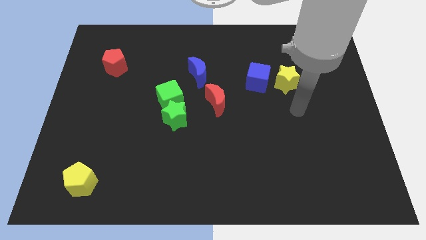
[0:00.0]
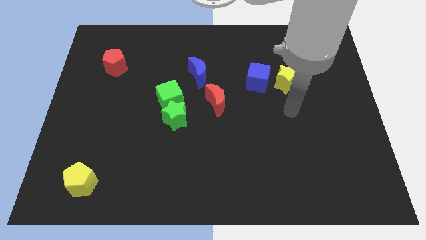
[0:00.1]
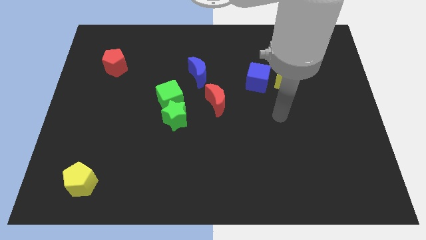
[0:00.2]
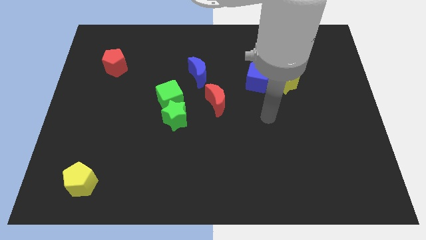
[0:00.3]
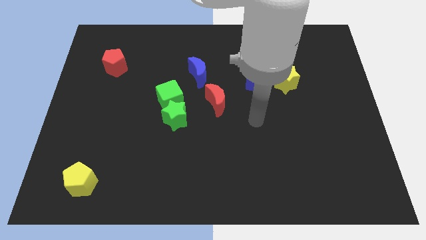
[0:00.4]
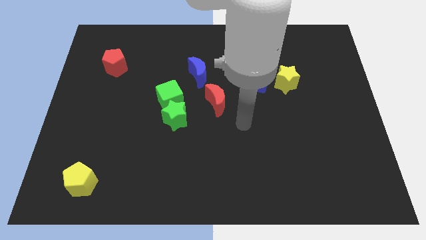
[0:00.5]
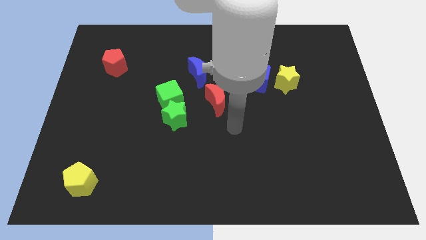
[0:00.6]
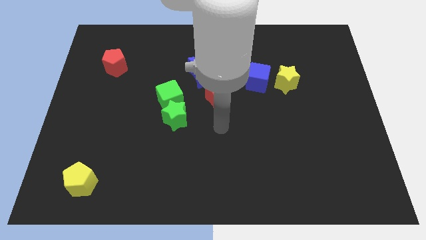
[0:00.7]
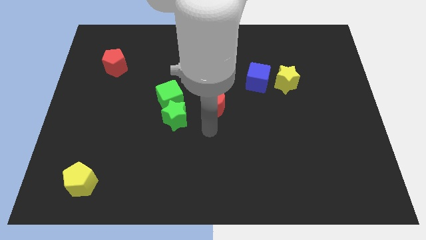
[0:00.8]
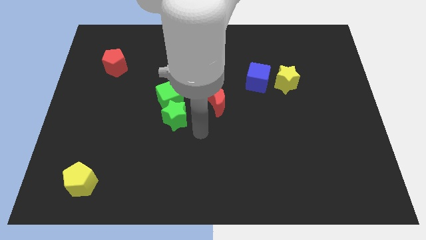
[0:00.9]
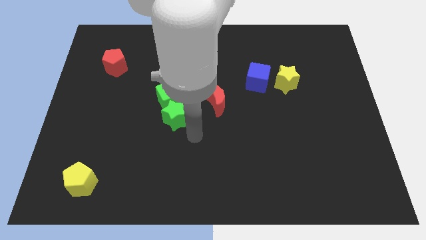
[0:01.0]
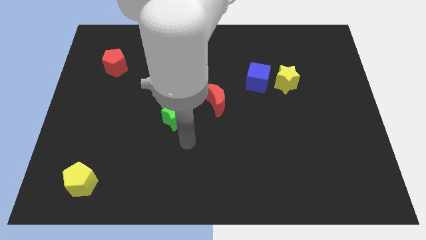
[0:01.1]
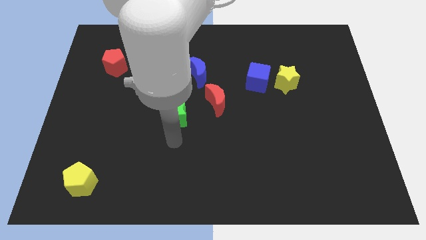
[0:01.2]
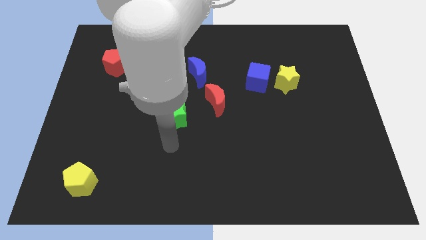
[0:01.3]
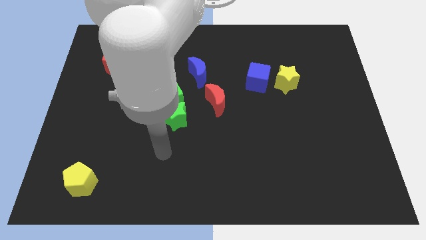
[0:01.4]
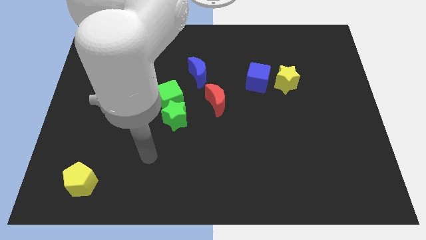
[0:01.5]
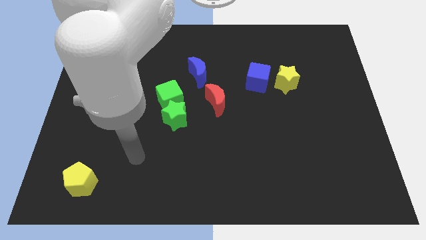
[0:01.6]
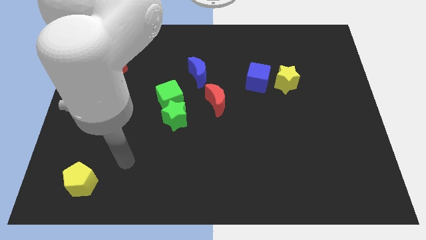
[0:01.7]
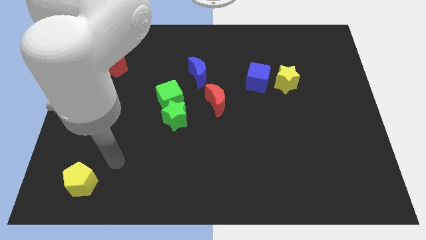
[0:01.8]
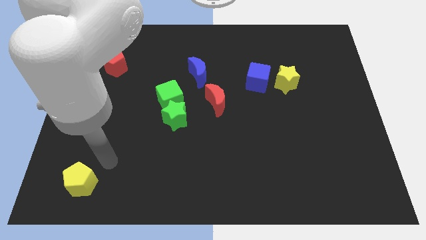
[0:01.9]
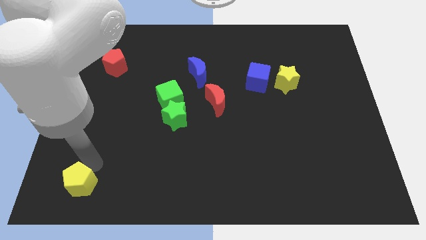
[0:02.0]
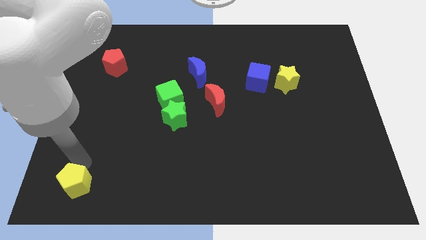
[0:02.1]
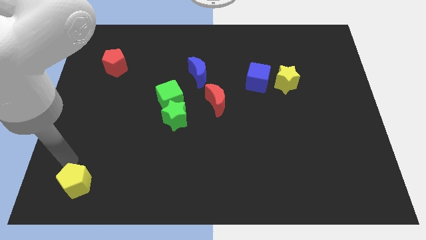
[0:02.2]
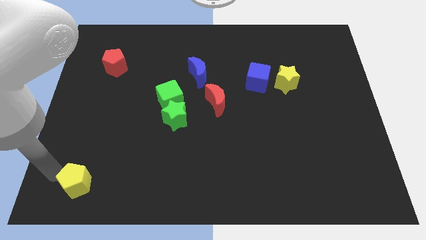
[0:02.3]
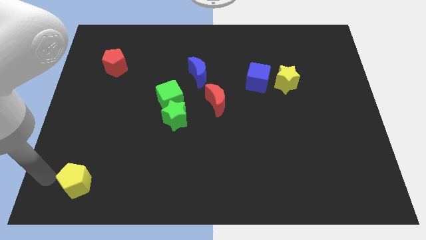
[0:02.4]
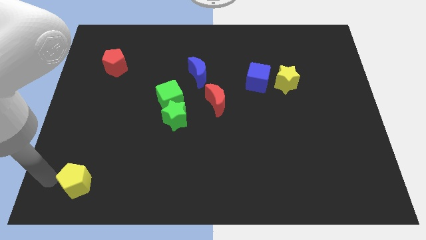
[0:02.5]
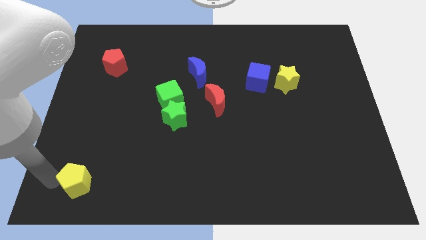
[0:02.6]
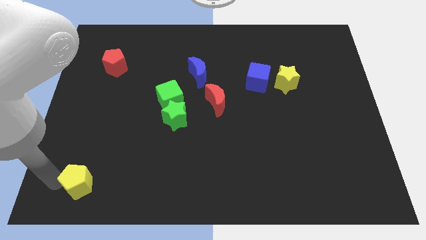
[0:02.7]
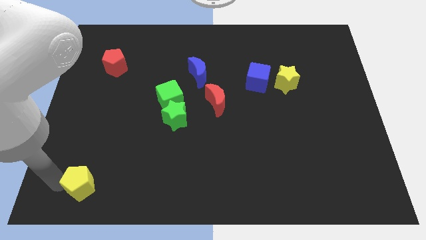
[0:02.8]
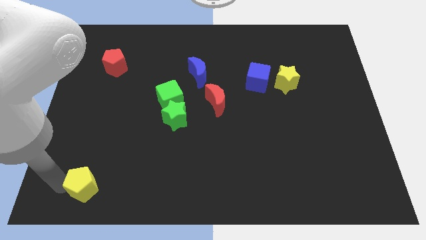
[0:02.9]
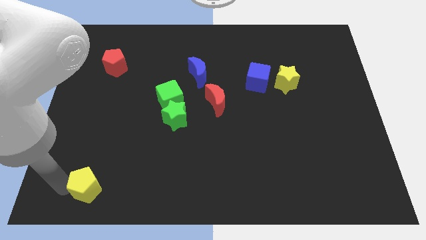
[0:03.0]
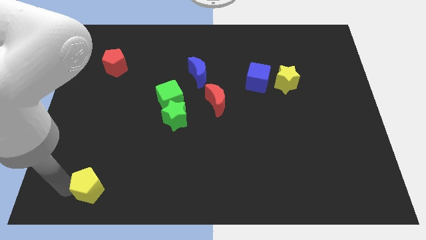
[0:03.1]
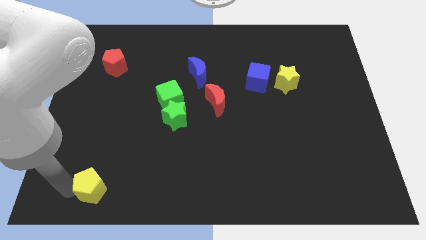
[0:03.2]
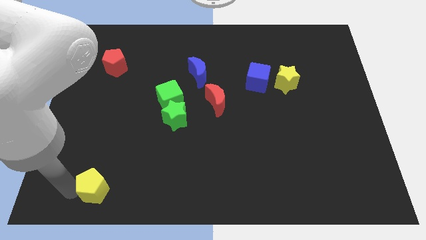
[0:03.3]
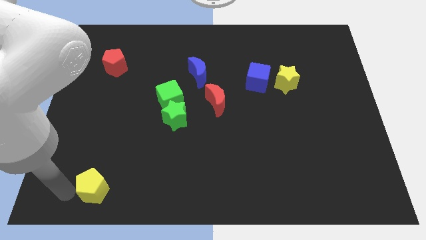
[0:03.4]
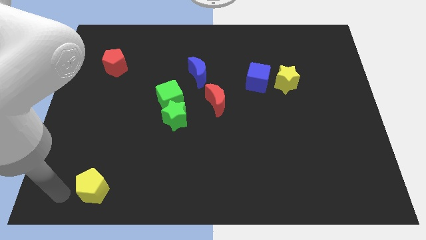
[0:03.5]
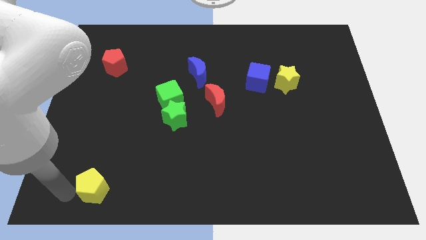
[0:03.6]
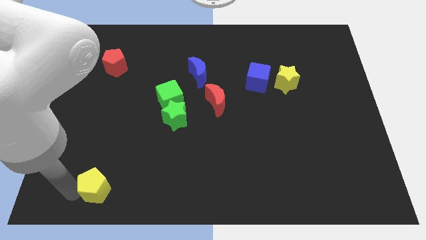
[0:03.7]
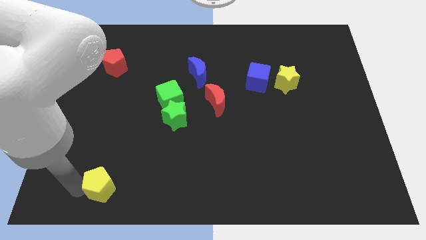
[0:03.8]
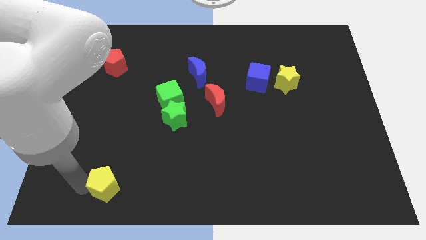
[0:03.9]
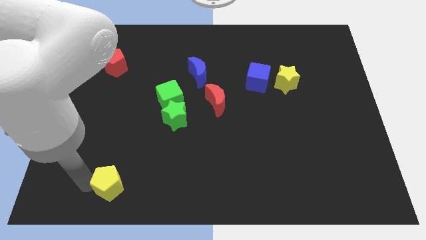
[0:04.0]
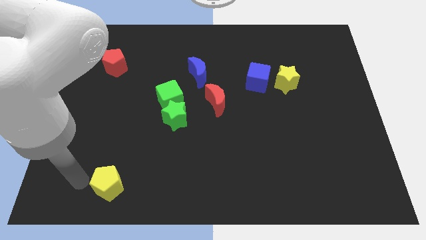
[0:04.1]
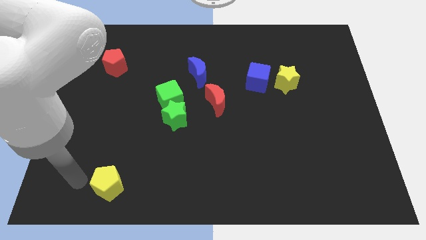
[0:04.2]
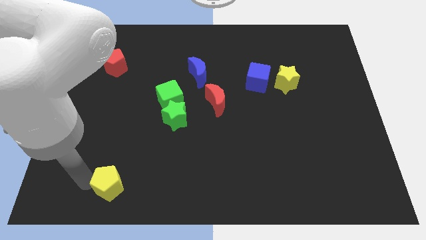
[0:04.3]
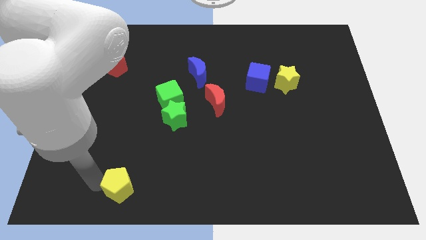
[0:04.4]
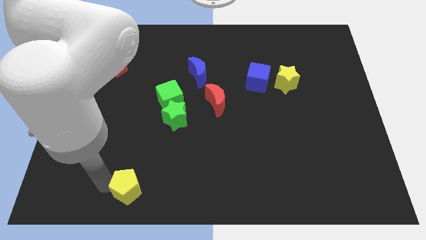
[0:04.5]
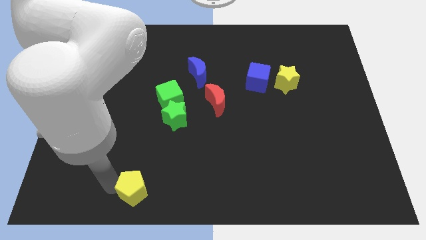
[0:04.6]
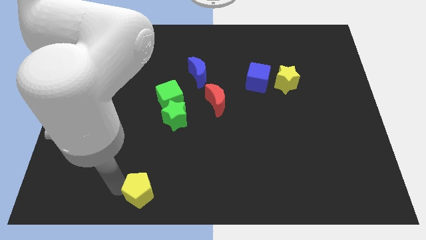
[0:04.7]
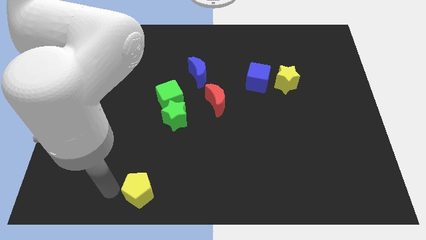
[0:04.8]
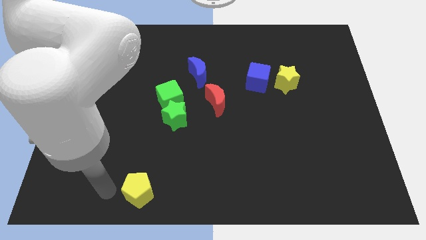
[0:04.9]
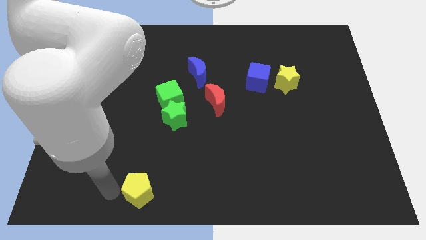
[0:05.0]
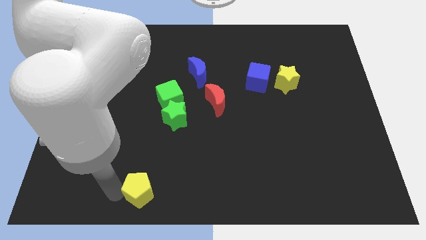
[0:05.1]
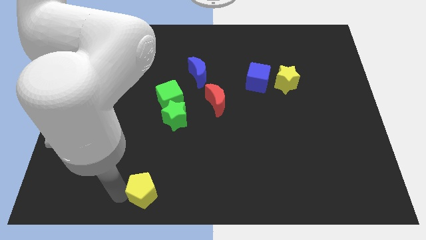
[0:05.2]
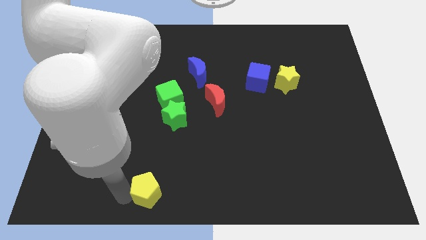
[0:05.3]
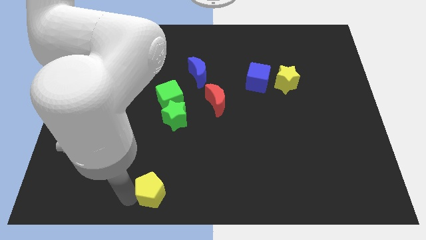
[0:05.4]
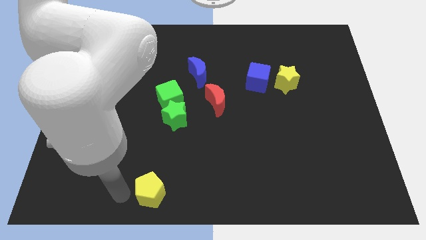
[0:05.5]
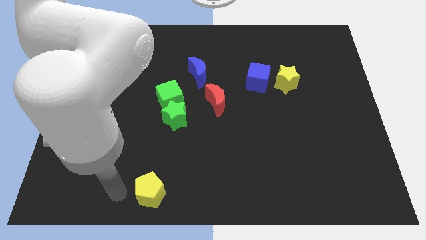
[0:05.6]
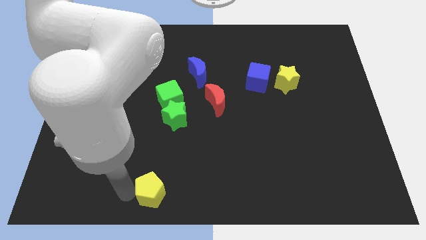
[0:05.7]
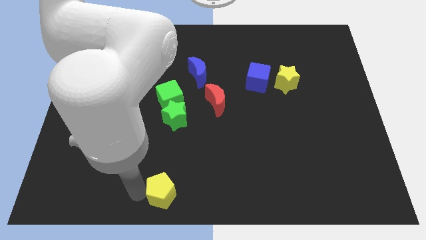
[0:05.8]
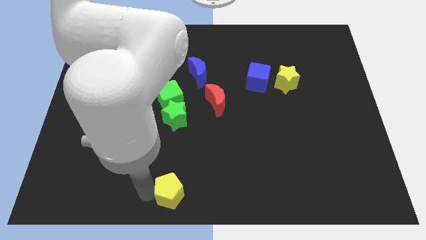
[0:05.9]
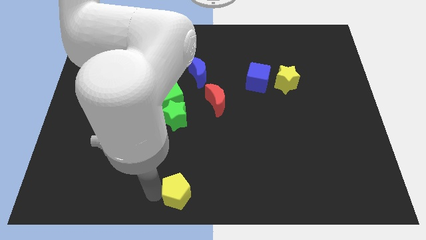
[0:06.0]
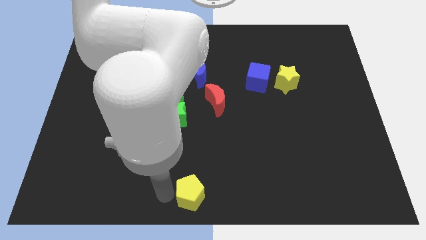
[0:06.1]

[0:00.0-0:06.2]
slide the yellow pentagon to the right

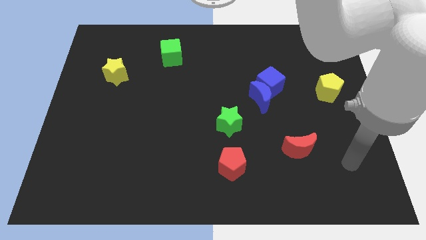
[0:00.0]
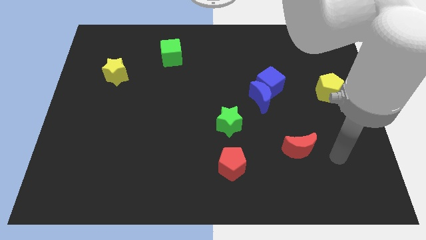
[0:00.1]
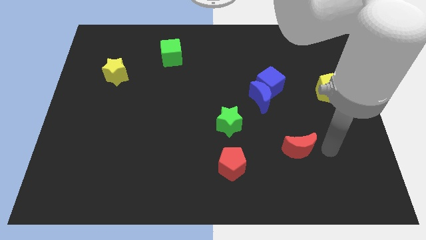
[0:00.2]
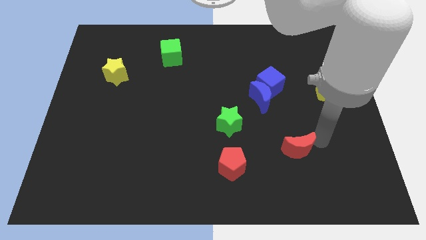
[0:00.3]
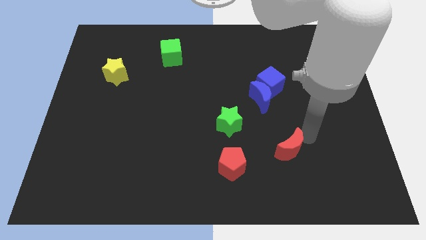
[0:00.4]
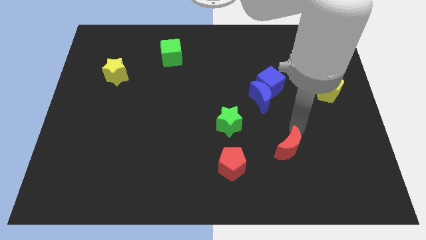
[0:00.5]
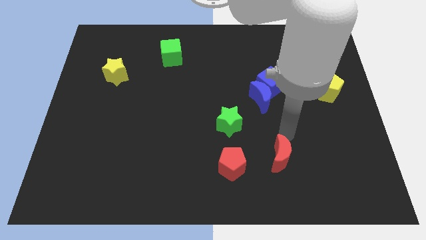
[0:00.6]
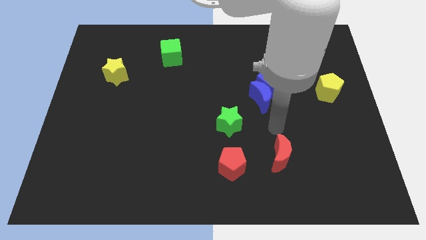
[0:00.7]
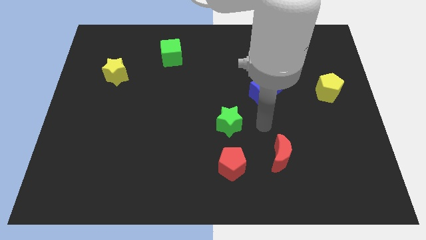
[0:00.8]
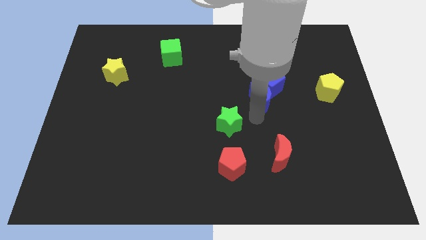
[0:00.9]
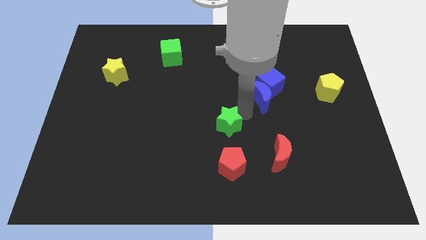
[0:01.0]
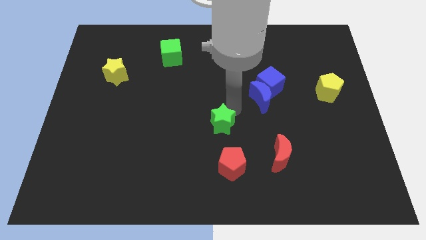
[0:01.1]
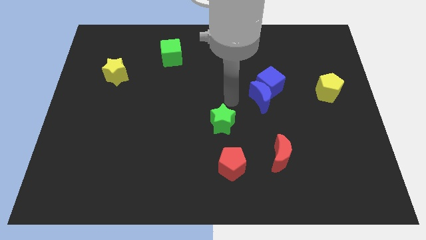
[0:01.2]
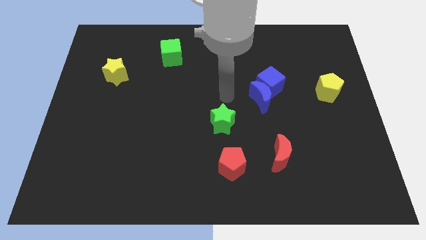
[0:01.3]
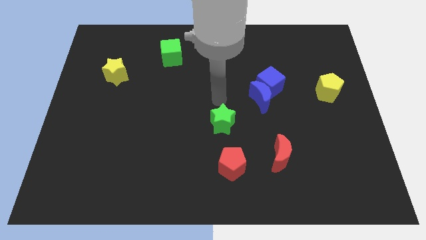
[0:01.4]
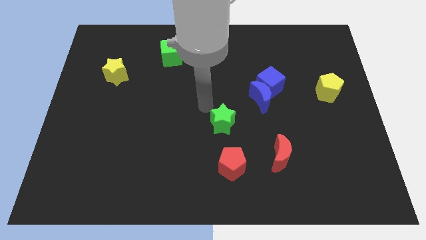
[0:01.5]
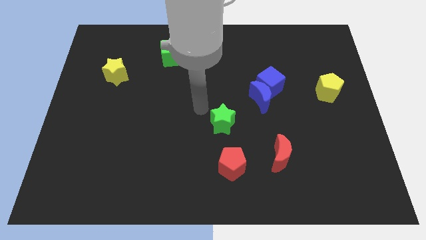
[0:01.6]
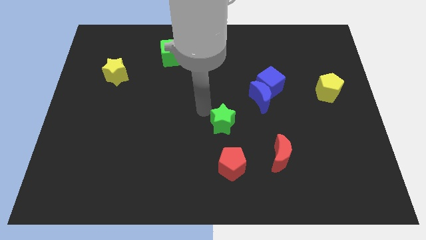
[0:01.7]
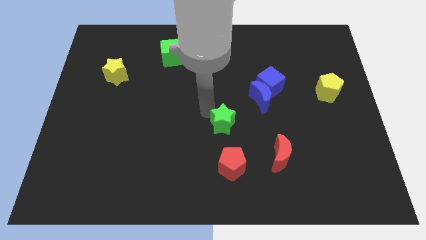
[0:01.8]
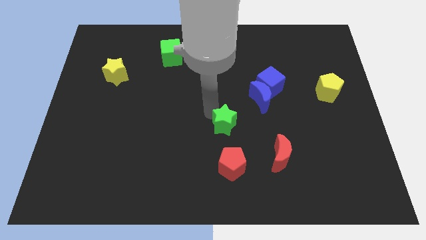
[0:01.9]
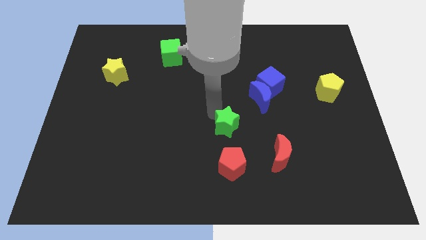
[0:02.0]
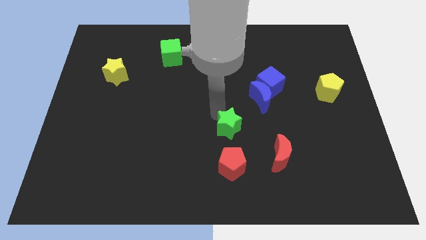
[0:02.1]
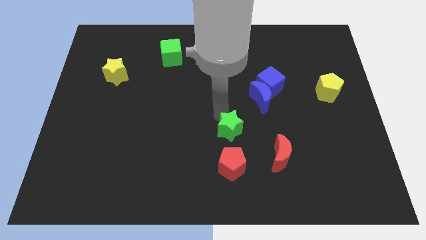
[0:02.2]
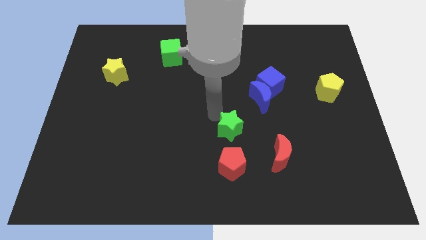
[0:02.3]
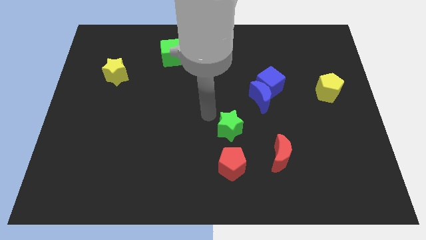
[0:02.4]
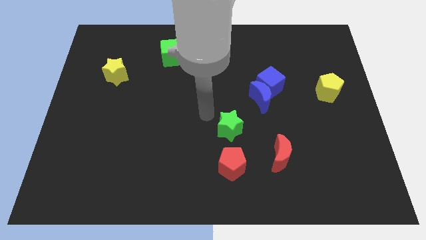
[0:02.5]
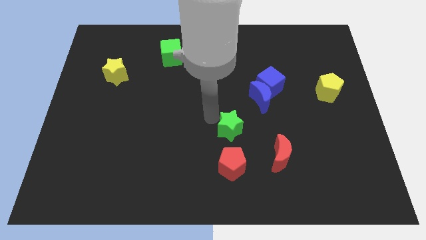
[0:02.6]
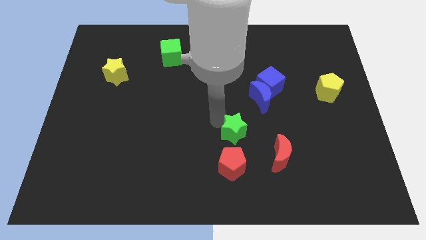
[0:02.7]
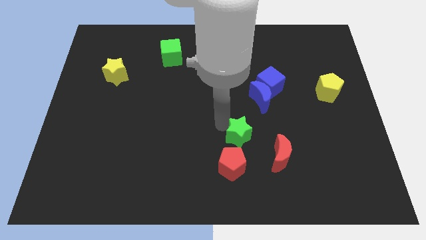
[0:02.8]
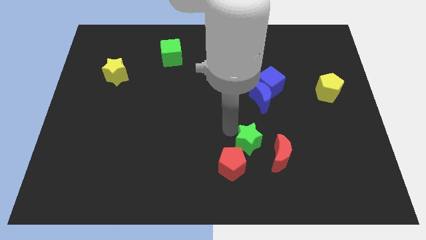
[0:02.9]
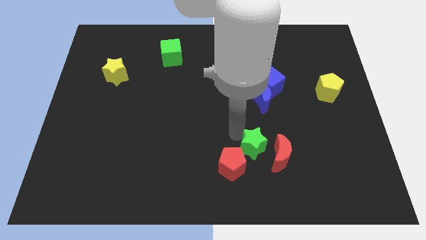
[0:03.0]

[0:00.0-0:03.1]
slide the green star a bit downwards and to the right diagonally
